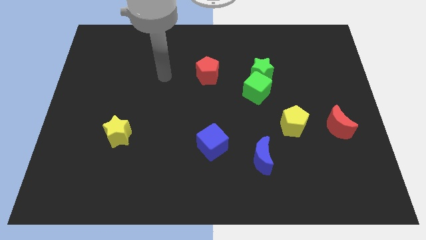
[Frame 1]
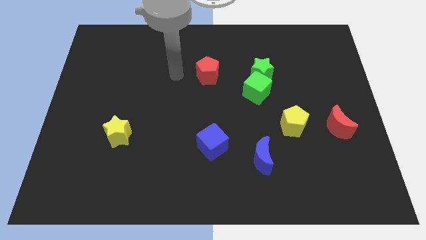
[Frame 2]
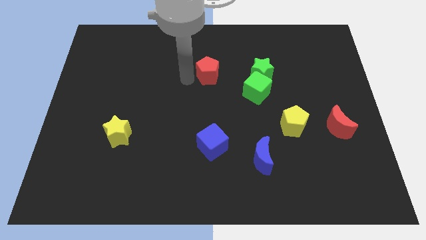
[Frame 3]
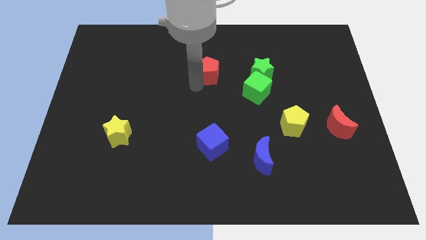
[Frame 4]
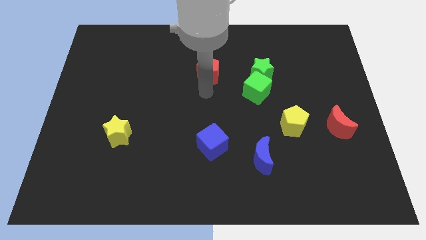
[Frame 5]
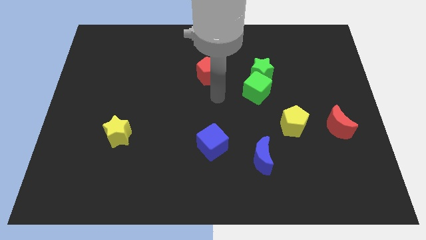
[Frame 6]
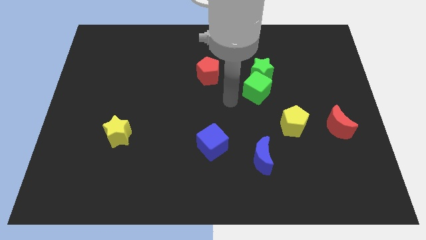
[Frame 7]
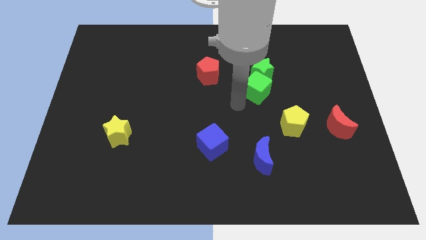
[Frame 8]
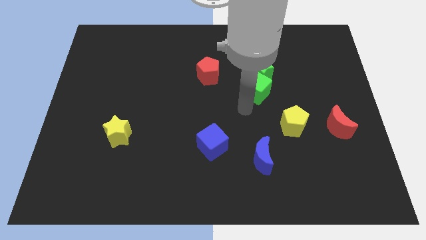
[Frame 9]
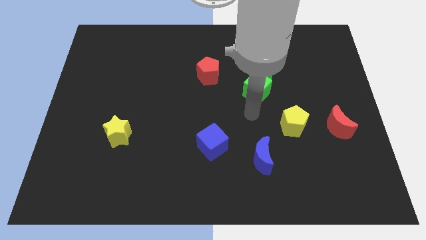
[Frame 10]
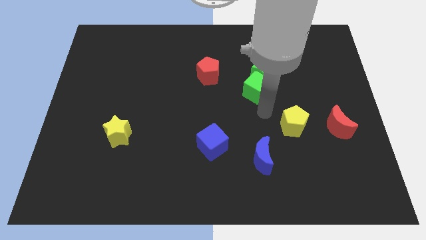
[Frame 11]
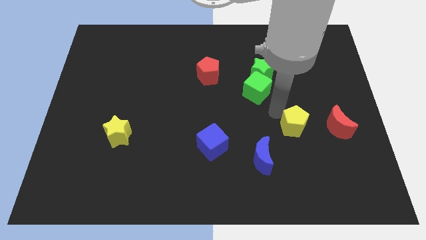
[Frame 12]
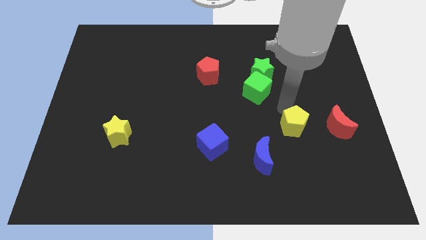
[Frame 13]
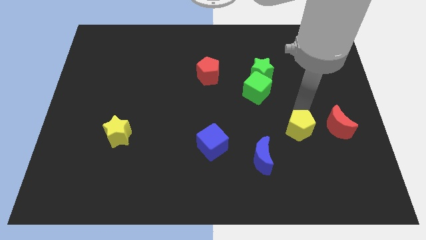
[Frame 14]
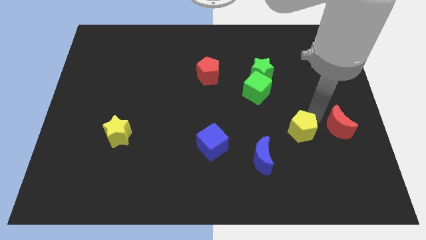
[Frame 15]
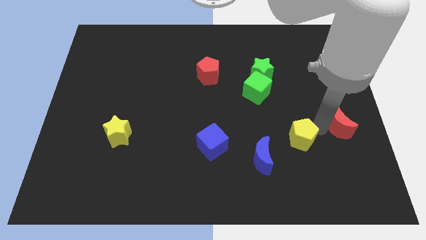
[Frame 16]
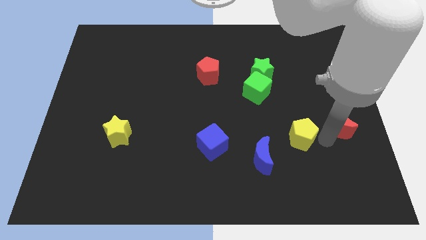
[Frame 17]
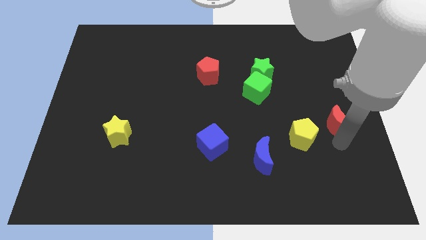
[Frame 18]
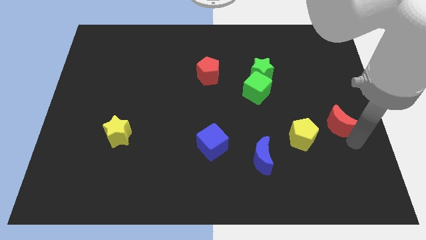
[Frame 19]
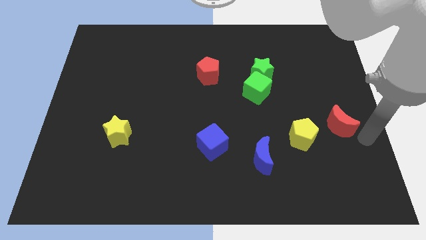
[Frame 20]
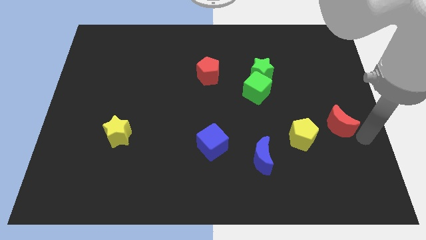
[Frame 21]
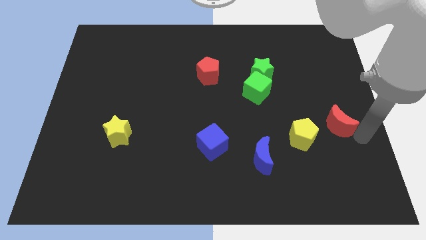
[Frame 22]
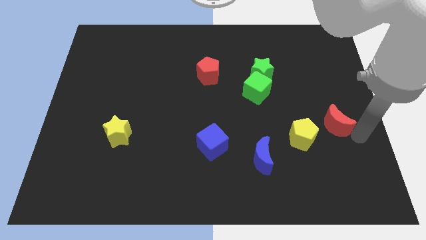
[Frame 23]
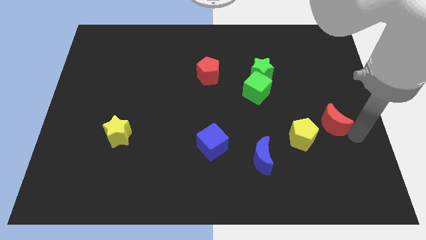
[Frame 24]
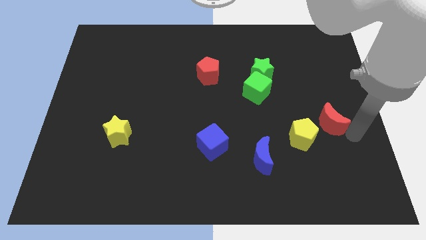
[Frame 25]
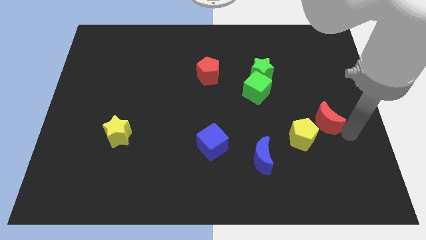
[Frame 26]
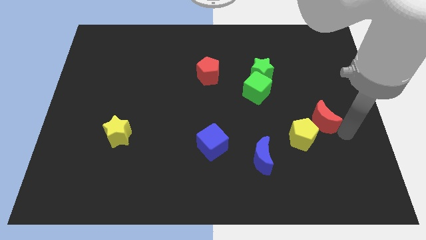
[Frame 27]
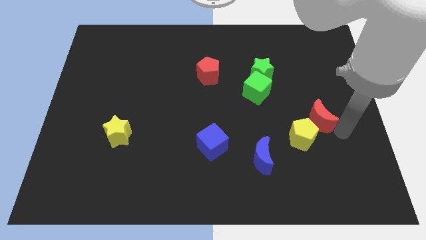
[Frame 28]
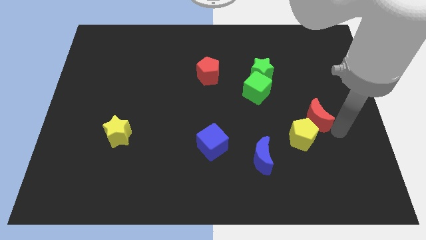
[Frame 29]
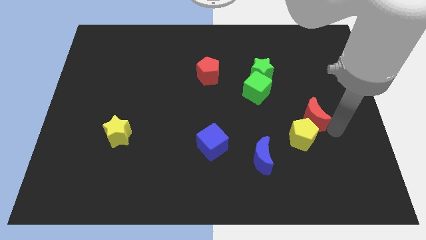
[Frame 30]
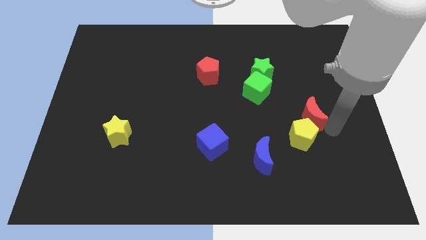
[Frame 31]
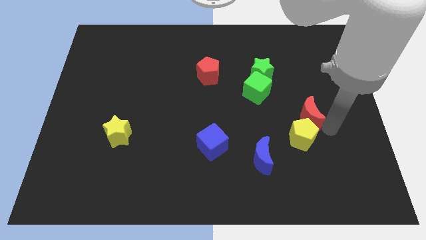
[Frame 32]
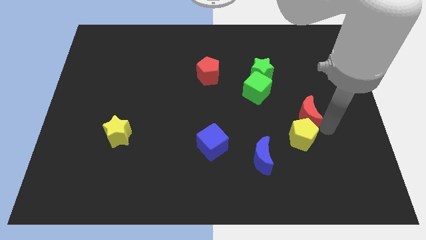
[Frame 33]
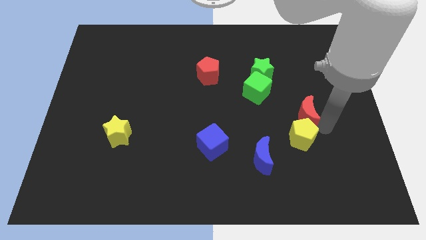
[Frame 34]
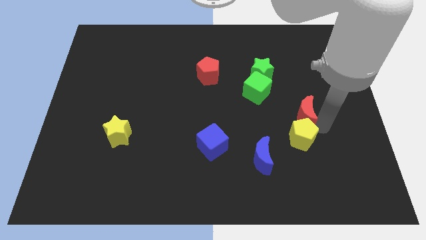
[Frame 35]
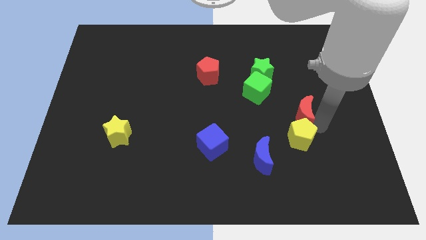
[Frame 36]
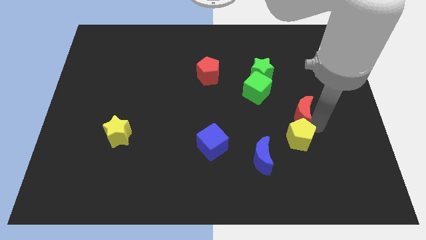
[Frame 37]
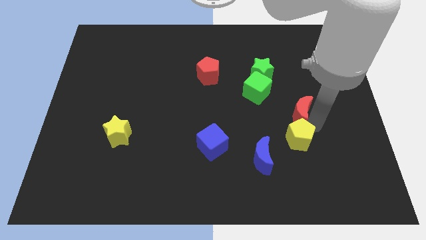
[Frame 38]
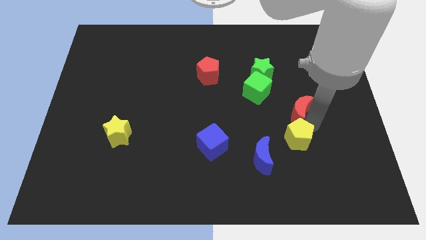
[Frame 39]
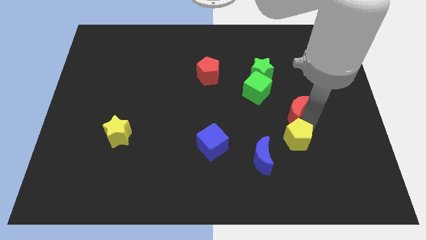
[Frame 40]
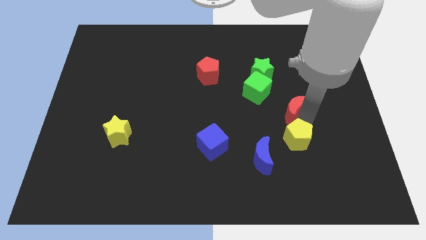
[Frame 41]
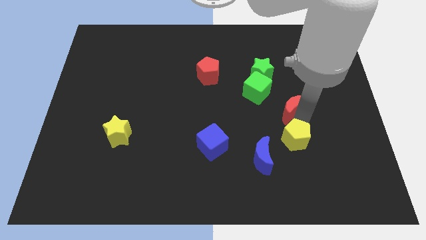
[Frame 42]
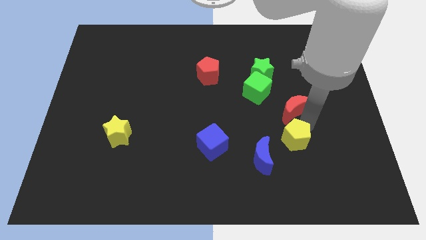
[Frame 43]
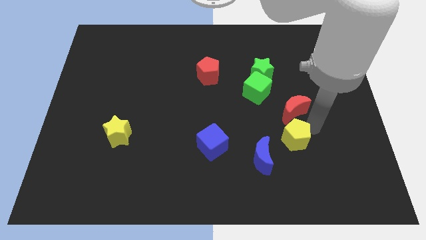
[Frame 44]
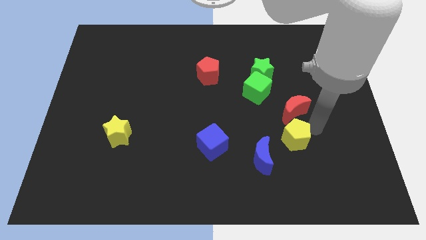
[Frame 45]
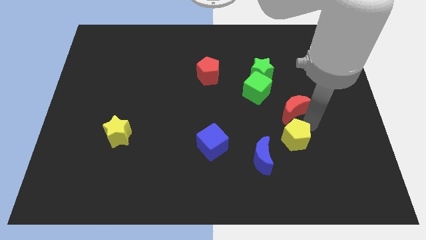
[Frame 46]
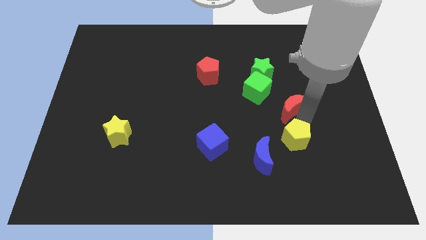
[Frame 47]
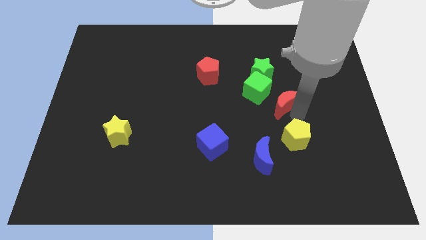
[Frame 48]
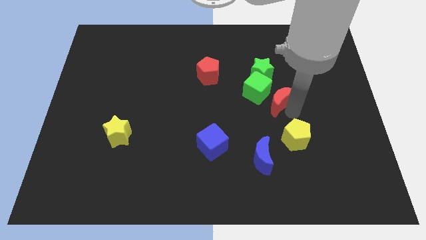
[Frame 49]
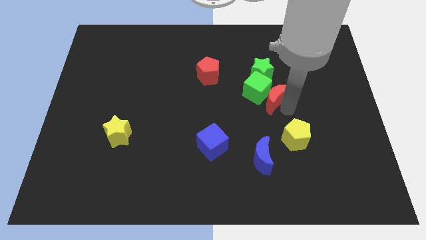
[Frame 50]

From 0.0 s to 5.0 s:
move the red moon close to the green cube

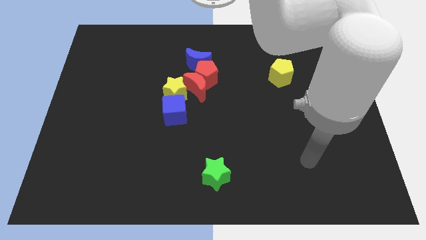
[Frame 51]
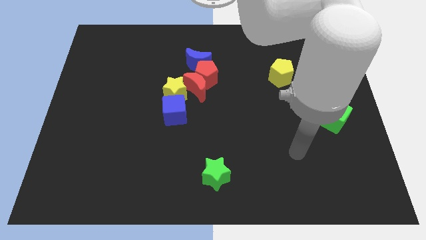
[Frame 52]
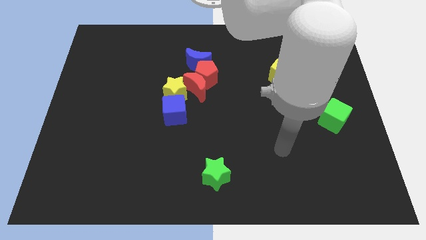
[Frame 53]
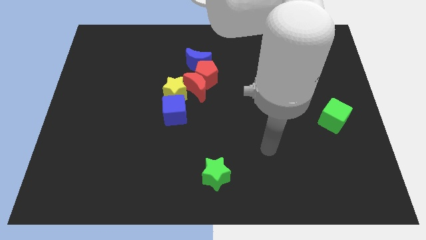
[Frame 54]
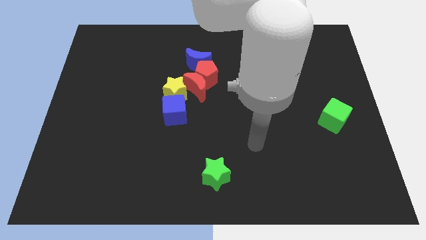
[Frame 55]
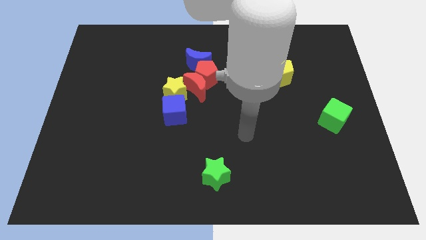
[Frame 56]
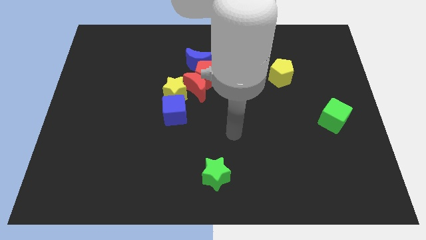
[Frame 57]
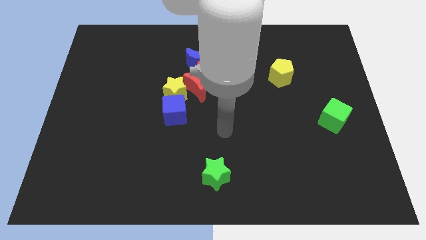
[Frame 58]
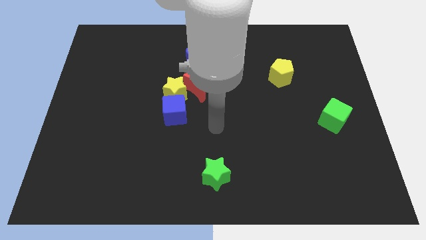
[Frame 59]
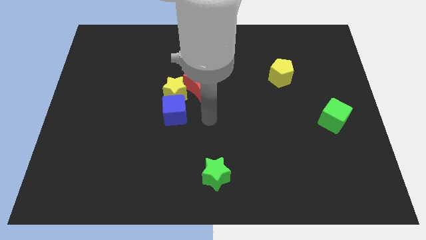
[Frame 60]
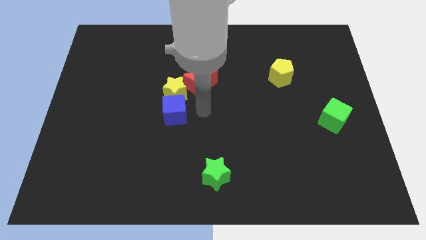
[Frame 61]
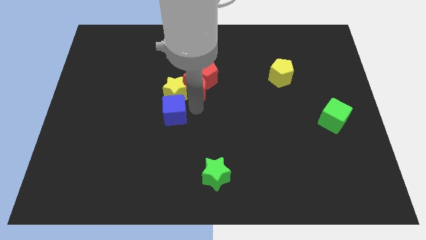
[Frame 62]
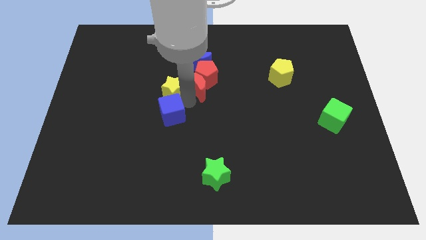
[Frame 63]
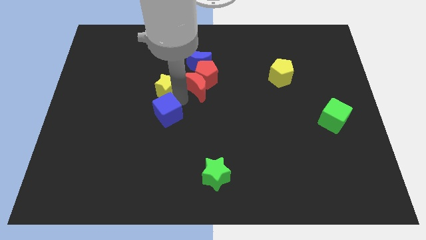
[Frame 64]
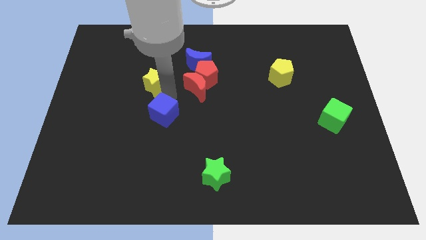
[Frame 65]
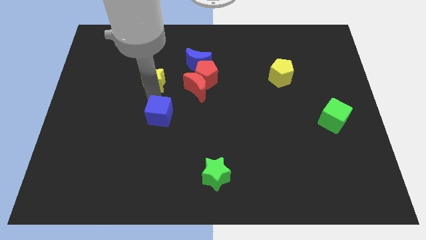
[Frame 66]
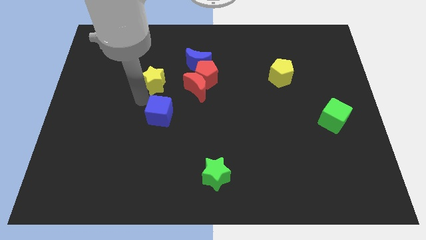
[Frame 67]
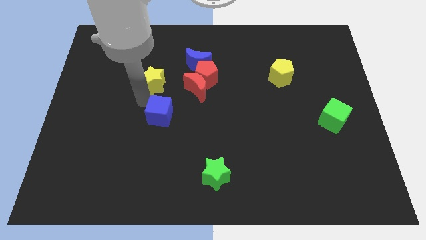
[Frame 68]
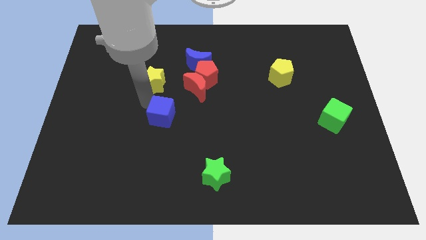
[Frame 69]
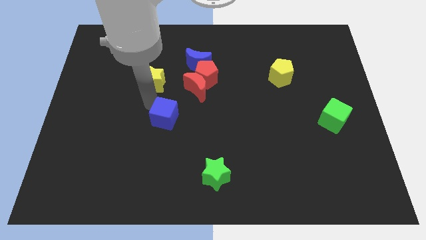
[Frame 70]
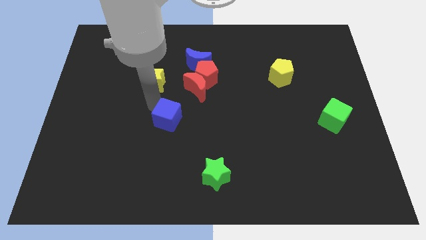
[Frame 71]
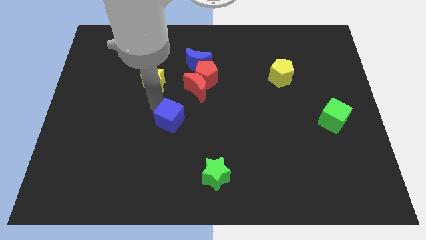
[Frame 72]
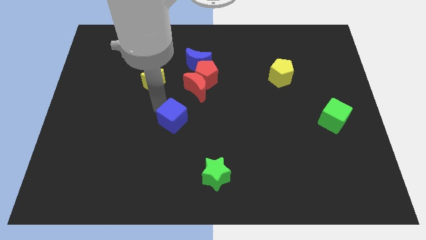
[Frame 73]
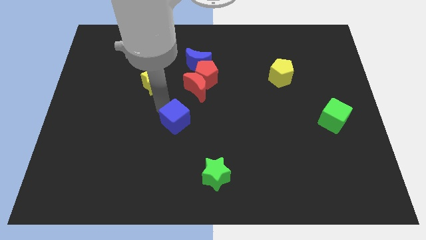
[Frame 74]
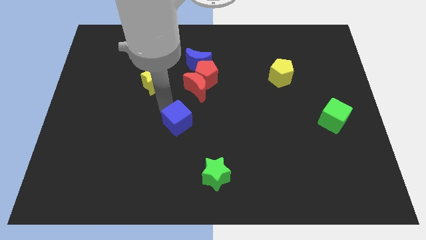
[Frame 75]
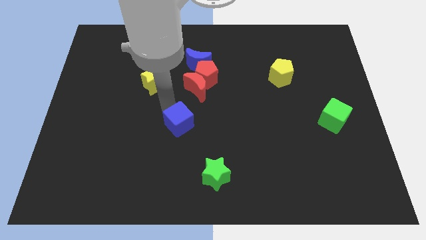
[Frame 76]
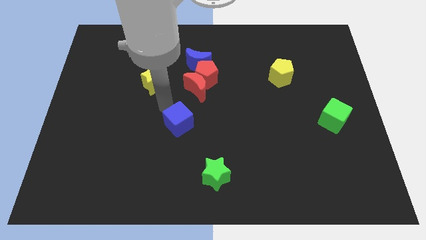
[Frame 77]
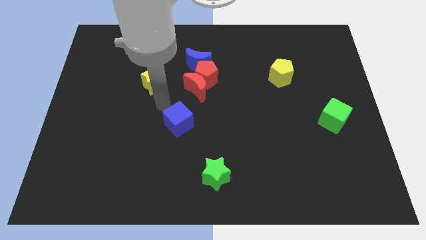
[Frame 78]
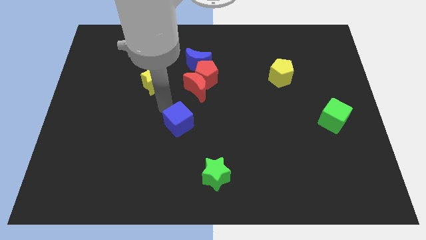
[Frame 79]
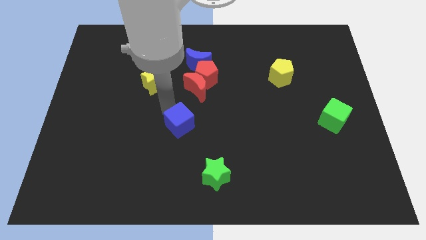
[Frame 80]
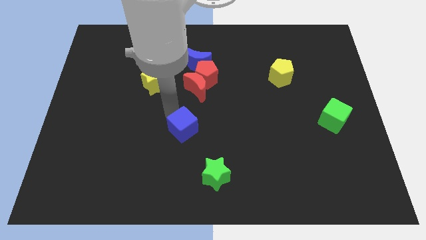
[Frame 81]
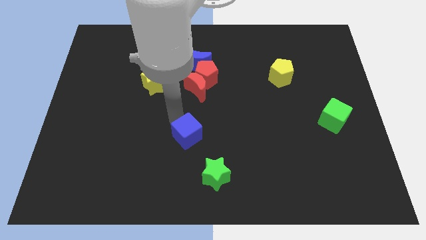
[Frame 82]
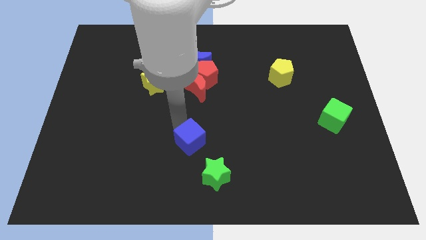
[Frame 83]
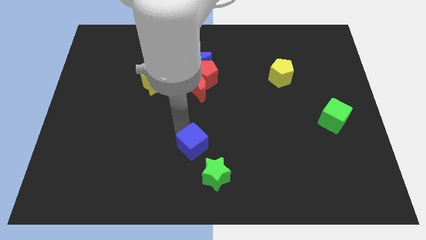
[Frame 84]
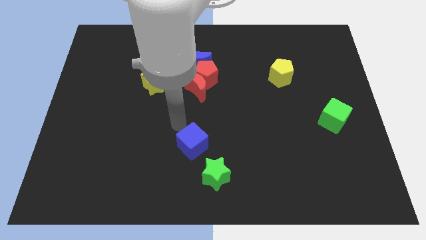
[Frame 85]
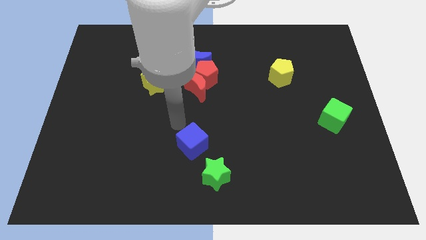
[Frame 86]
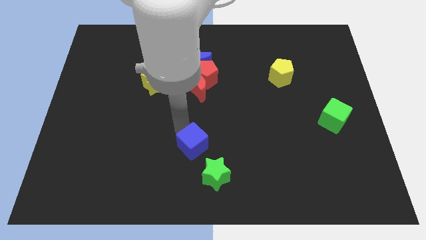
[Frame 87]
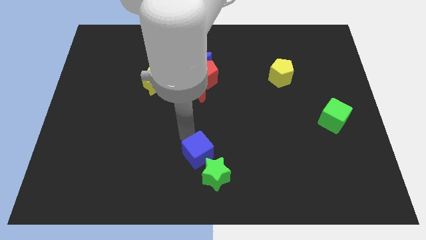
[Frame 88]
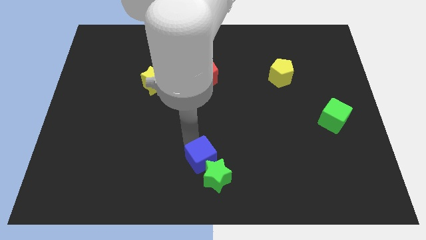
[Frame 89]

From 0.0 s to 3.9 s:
move the blue cube towards the green star
